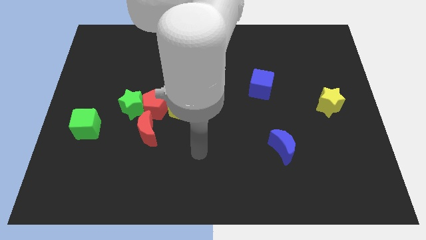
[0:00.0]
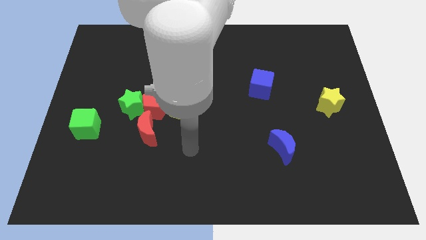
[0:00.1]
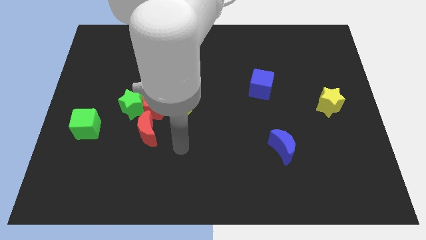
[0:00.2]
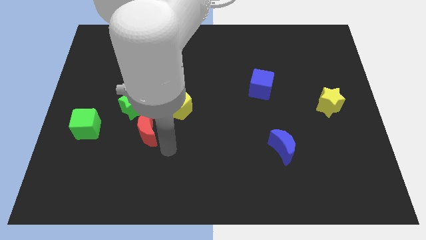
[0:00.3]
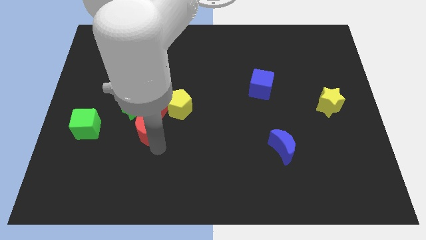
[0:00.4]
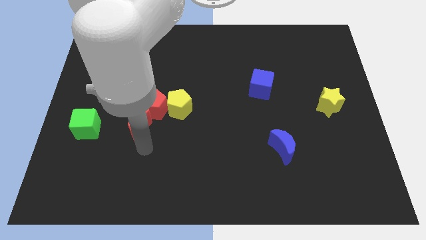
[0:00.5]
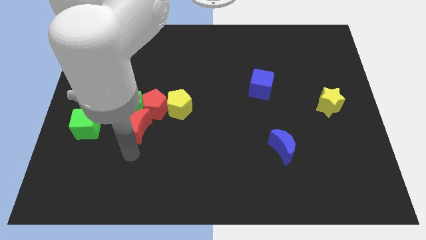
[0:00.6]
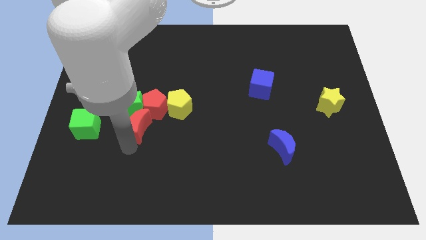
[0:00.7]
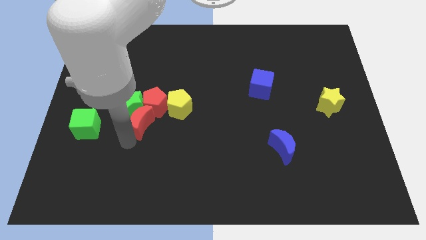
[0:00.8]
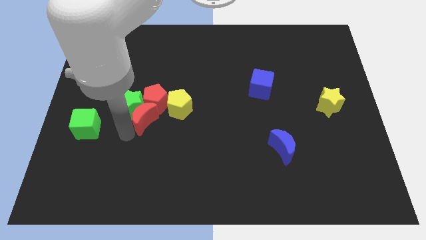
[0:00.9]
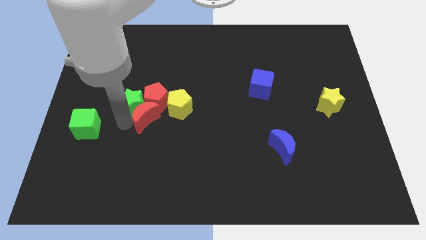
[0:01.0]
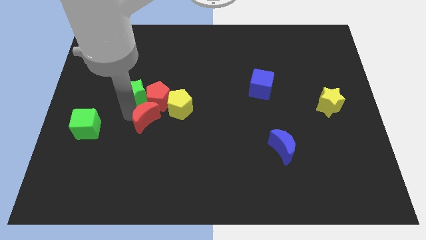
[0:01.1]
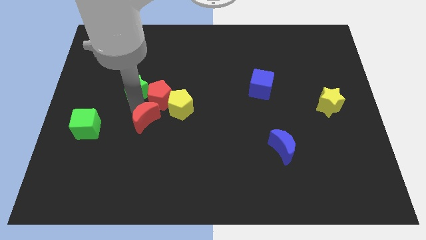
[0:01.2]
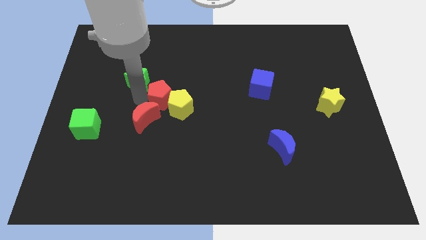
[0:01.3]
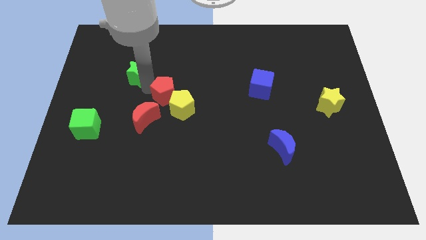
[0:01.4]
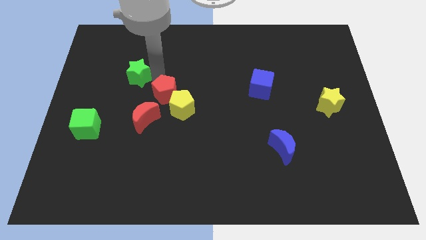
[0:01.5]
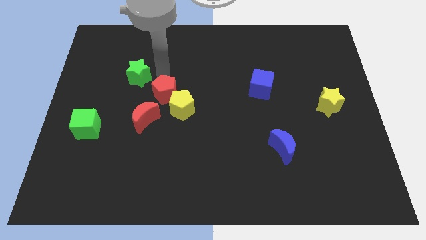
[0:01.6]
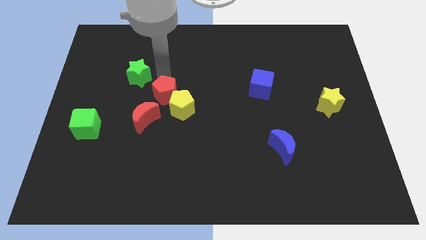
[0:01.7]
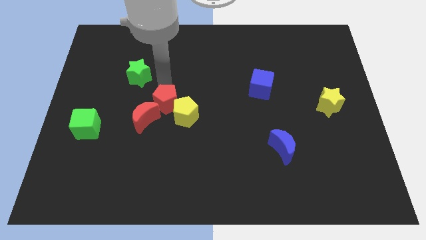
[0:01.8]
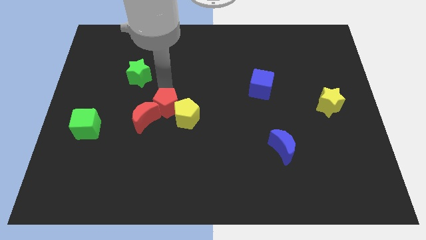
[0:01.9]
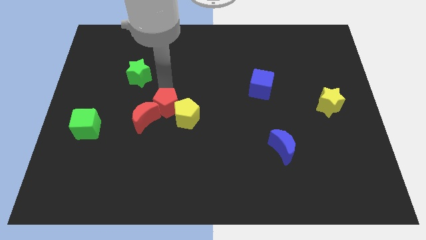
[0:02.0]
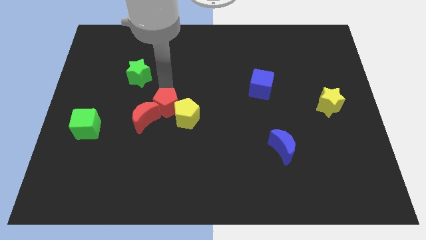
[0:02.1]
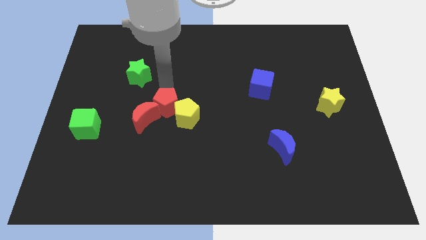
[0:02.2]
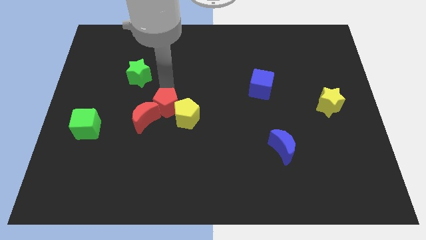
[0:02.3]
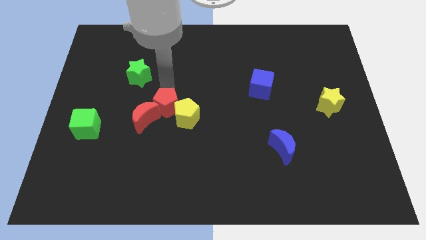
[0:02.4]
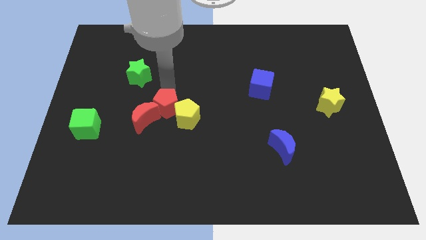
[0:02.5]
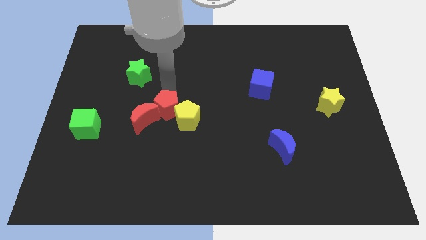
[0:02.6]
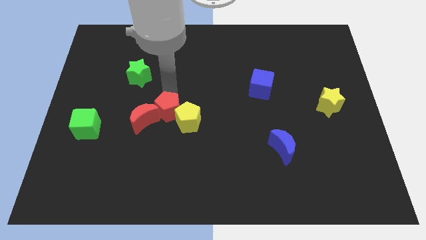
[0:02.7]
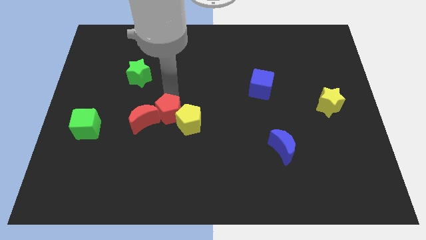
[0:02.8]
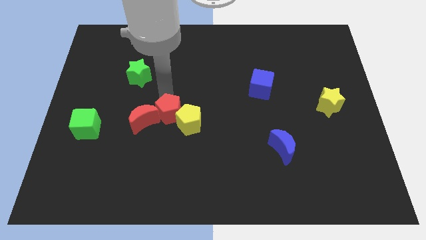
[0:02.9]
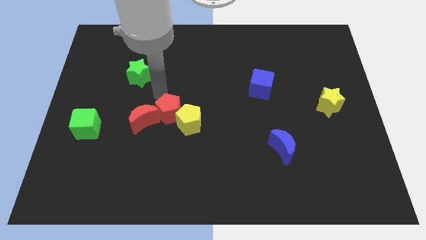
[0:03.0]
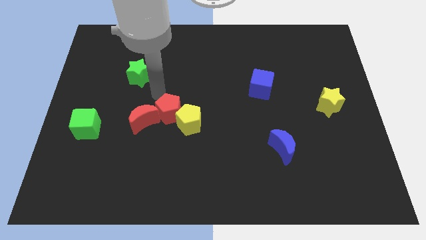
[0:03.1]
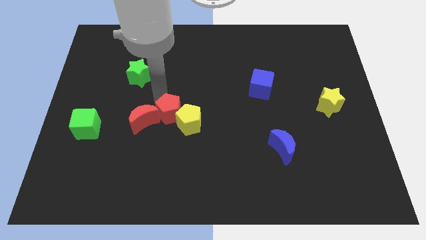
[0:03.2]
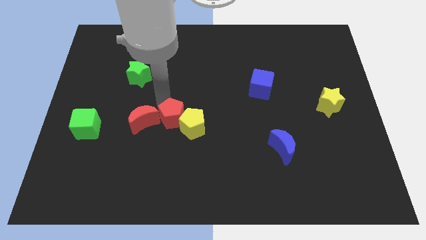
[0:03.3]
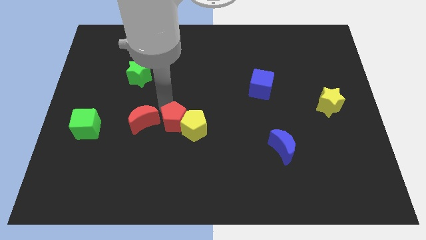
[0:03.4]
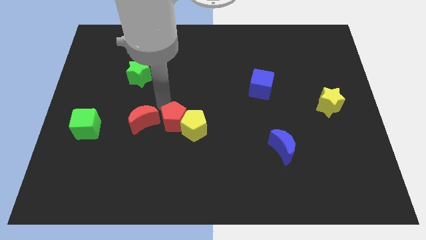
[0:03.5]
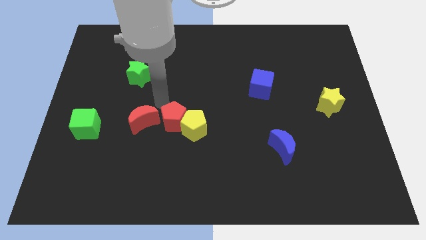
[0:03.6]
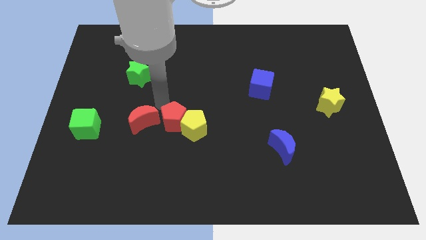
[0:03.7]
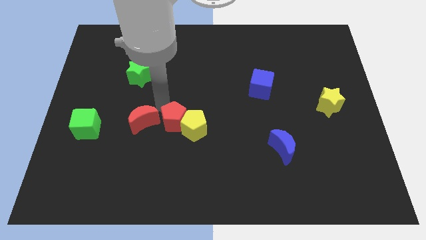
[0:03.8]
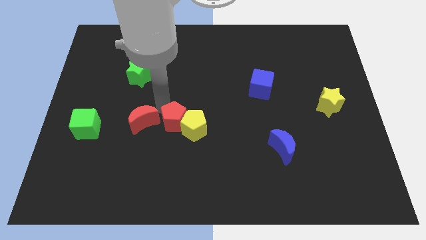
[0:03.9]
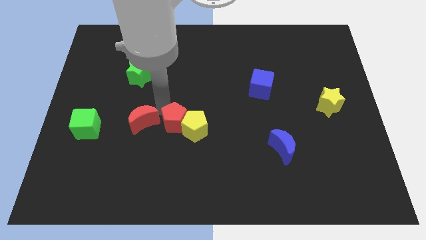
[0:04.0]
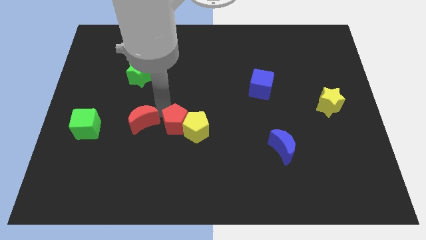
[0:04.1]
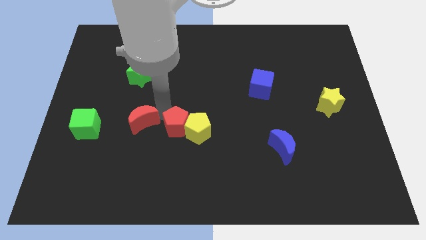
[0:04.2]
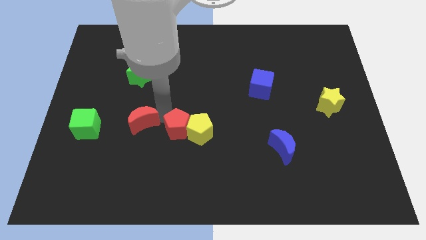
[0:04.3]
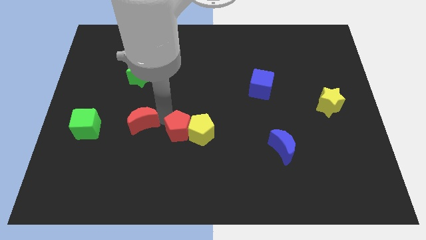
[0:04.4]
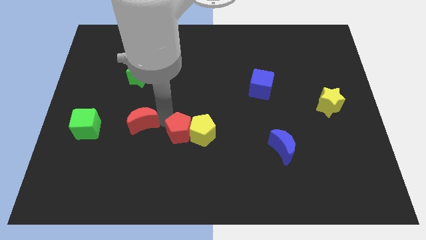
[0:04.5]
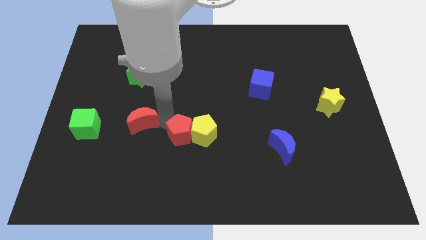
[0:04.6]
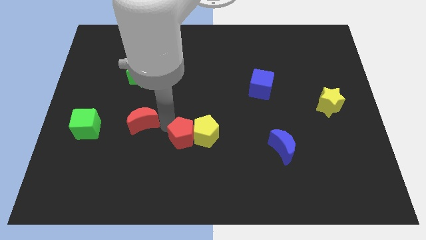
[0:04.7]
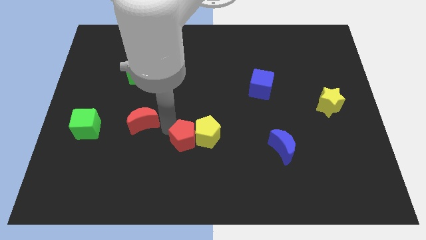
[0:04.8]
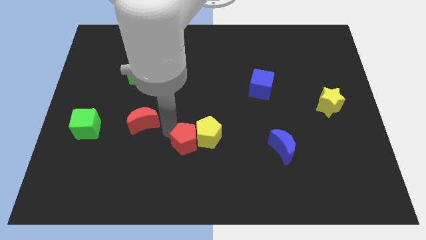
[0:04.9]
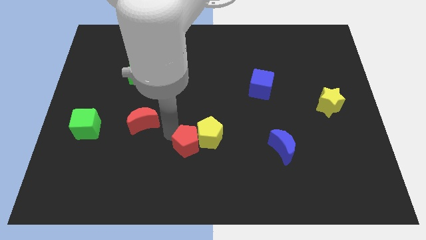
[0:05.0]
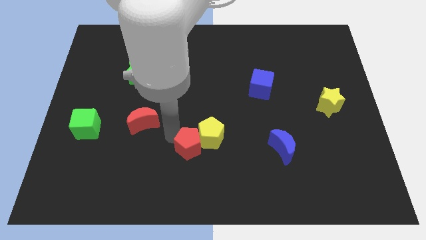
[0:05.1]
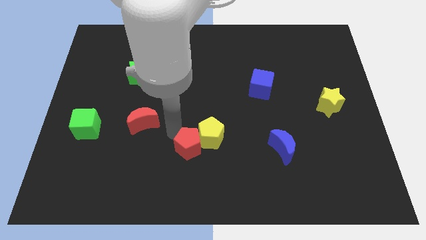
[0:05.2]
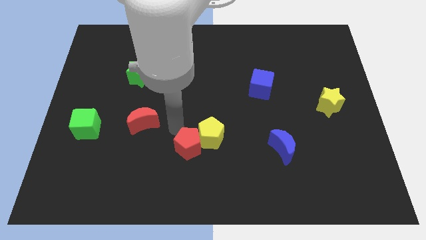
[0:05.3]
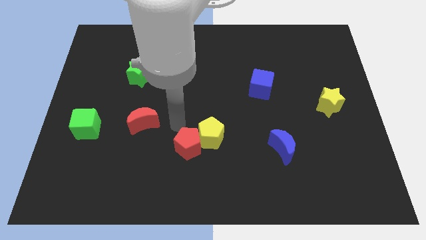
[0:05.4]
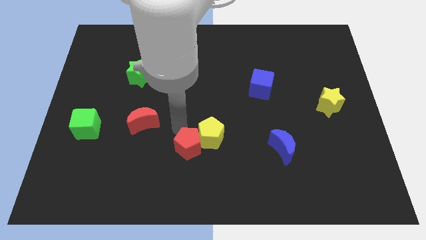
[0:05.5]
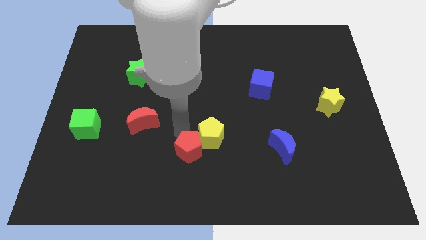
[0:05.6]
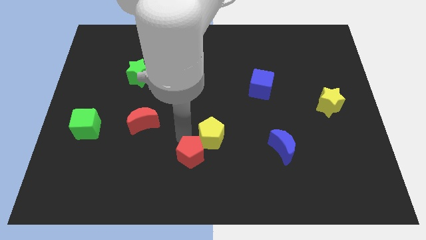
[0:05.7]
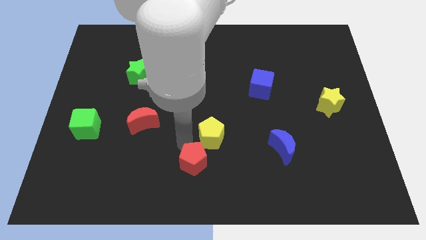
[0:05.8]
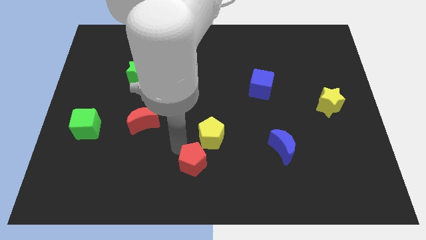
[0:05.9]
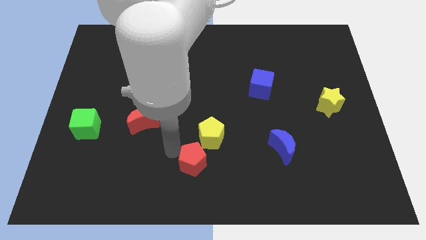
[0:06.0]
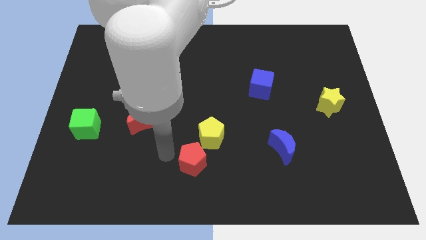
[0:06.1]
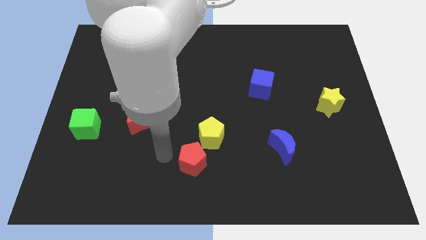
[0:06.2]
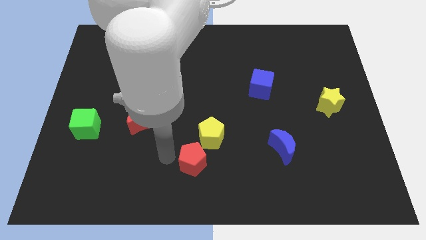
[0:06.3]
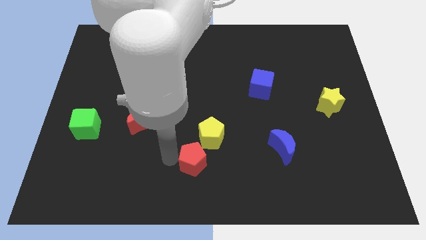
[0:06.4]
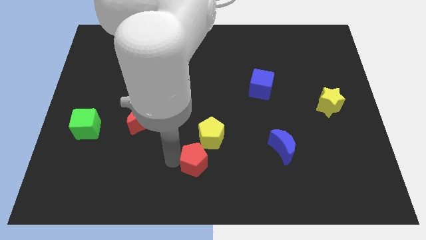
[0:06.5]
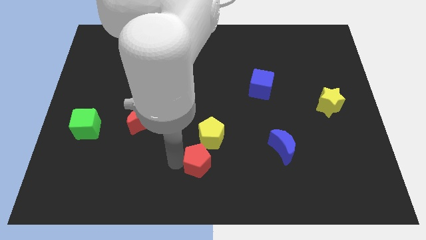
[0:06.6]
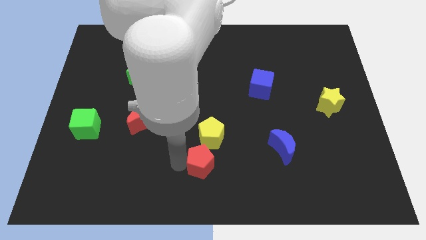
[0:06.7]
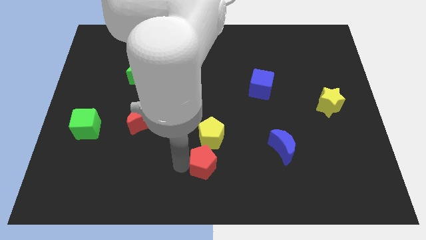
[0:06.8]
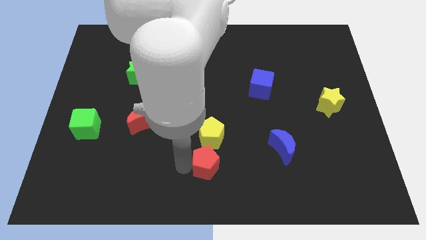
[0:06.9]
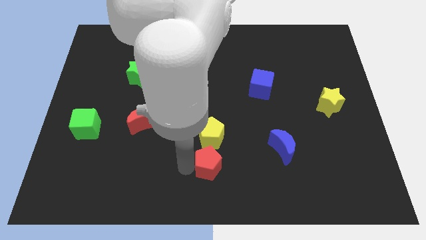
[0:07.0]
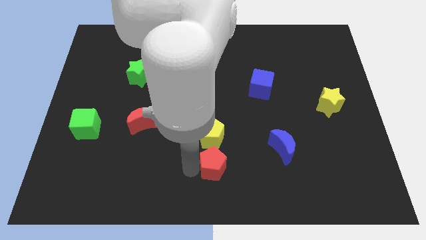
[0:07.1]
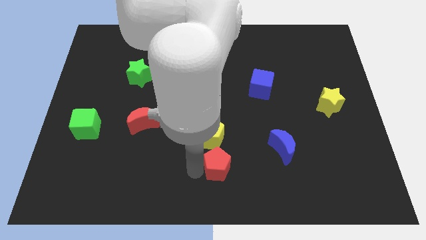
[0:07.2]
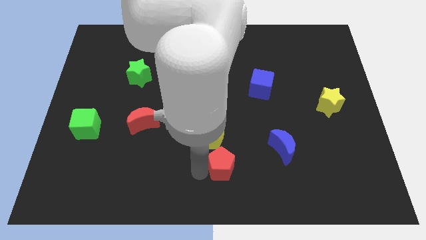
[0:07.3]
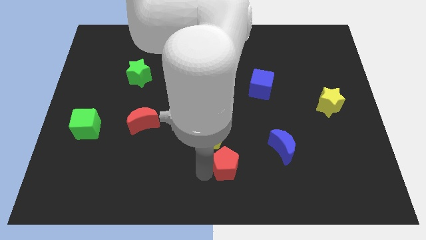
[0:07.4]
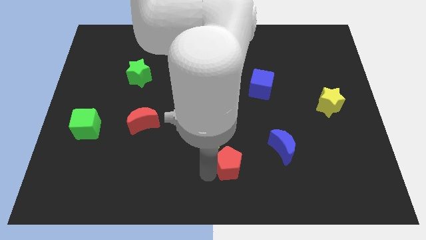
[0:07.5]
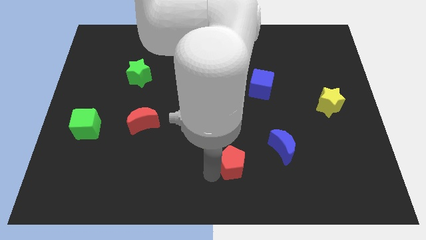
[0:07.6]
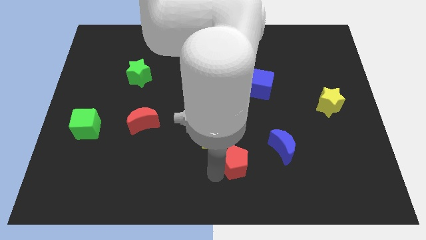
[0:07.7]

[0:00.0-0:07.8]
move the red pentagon diagonally down and to the left of the blue moon

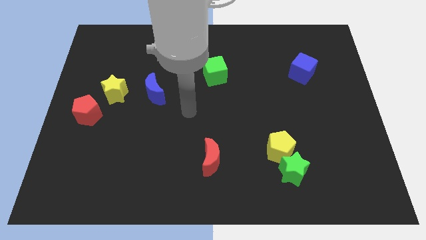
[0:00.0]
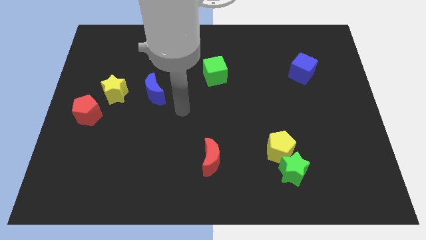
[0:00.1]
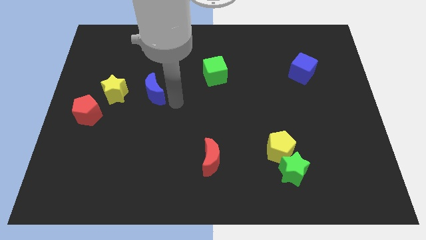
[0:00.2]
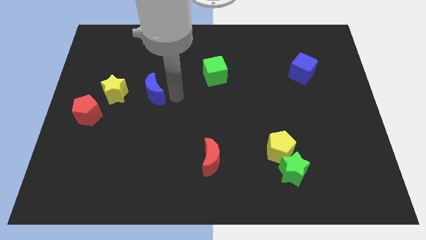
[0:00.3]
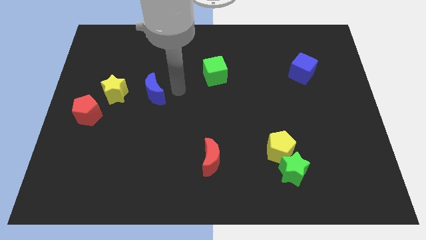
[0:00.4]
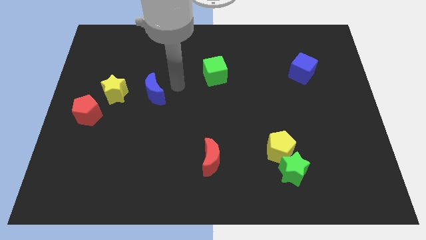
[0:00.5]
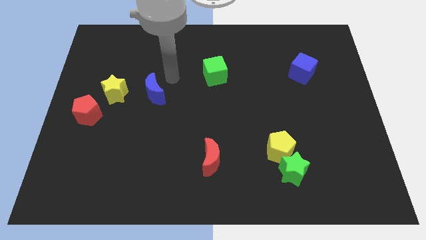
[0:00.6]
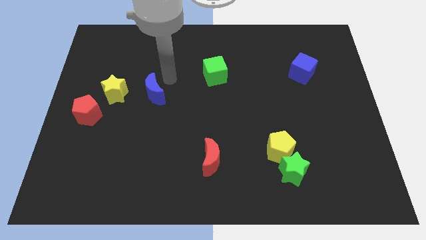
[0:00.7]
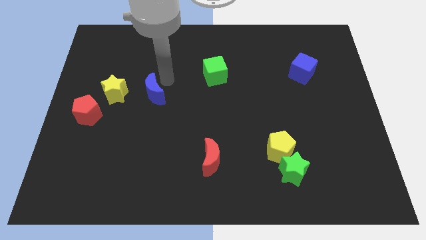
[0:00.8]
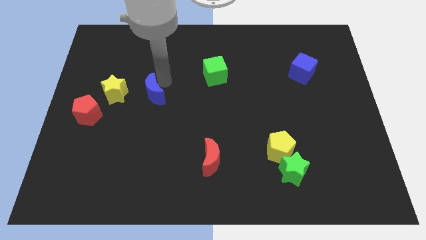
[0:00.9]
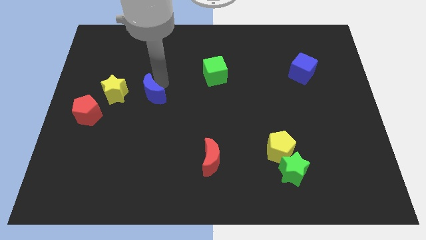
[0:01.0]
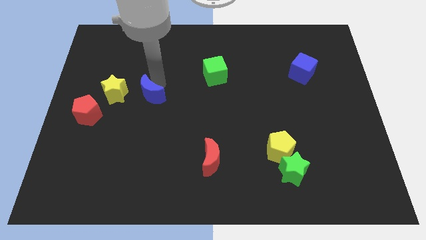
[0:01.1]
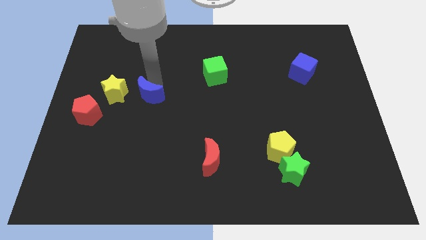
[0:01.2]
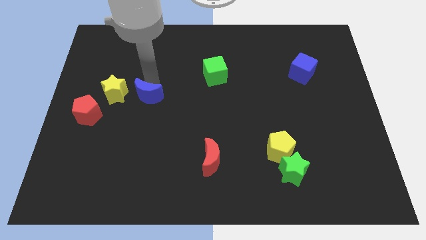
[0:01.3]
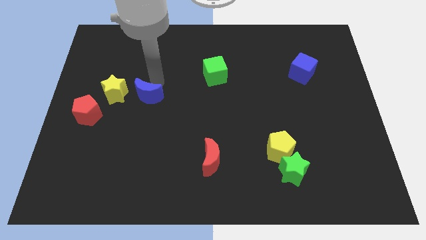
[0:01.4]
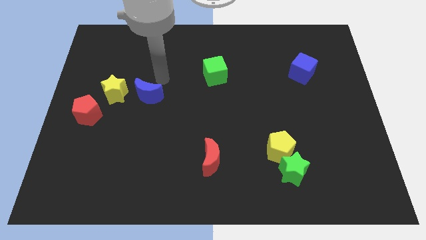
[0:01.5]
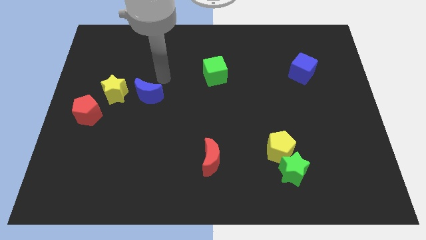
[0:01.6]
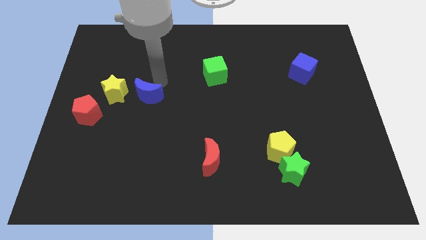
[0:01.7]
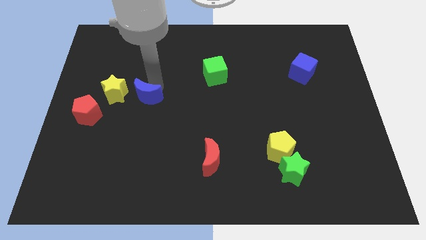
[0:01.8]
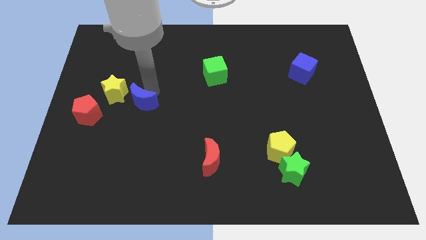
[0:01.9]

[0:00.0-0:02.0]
slide the blue moon just right of the red pentagon
